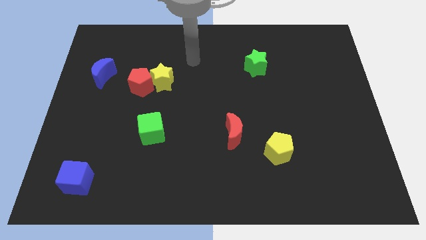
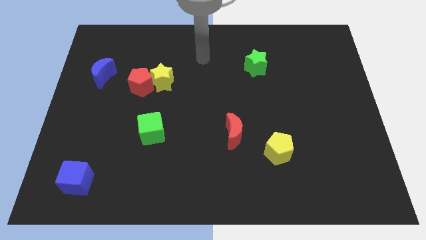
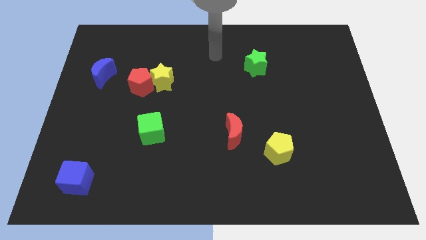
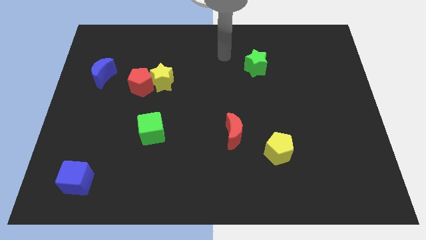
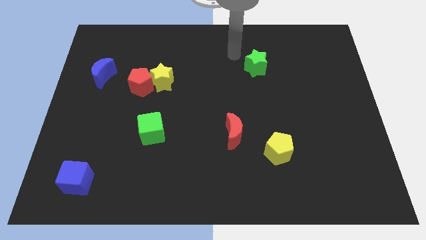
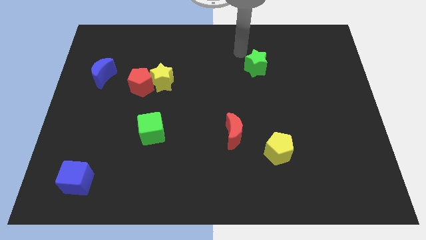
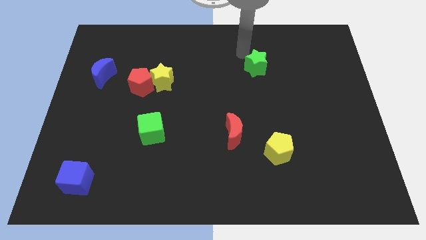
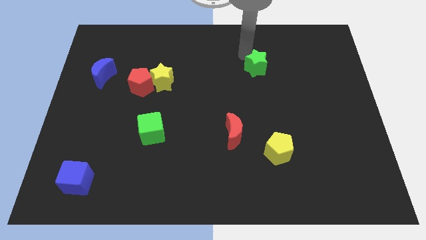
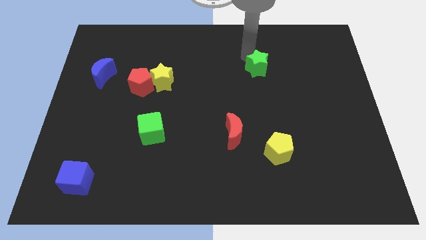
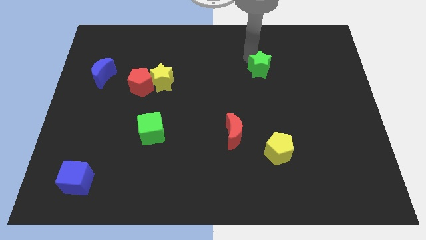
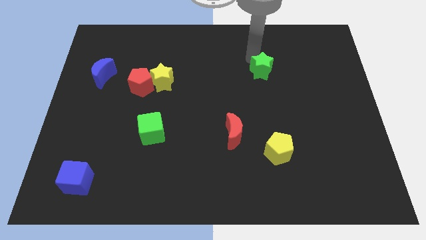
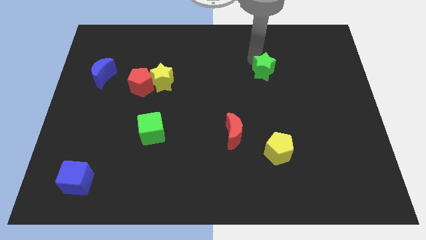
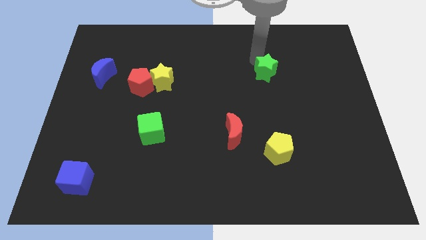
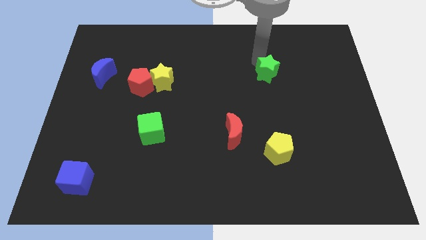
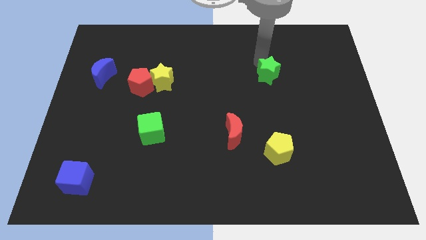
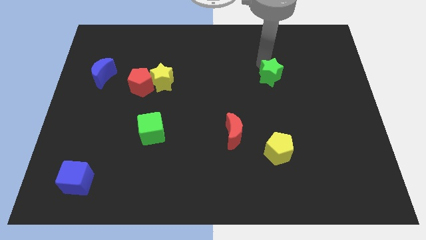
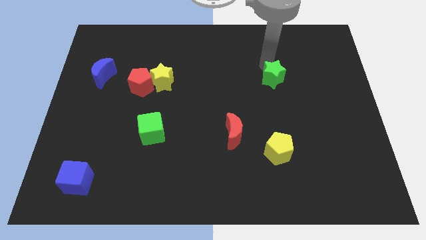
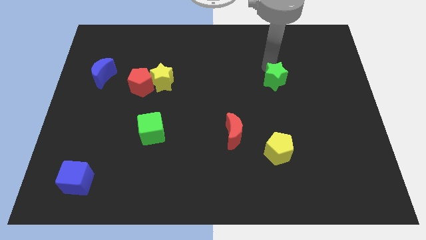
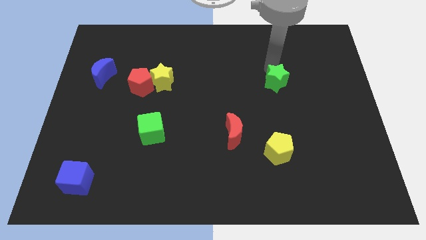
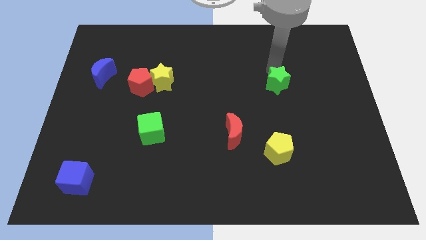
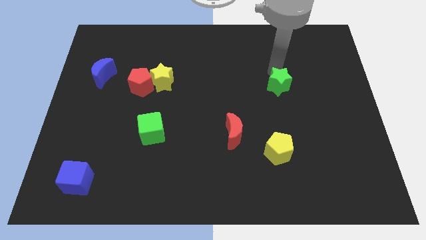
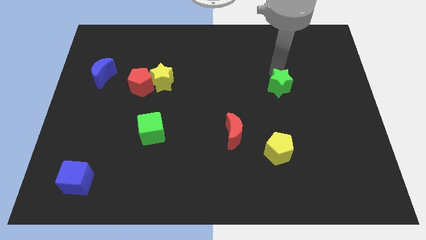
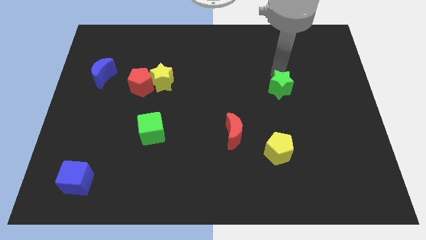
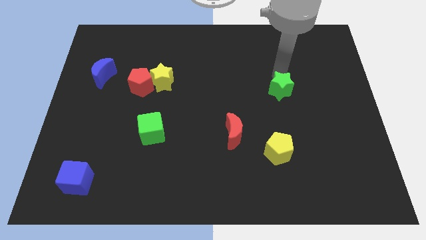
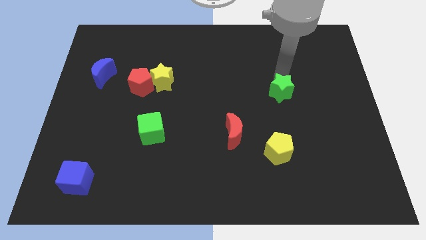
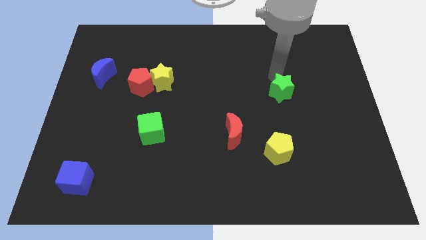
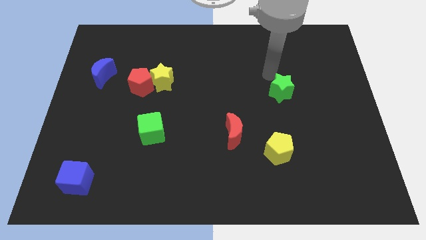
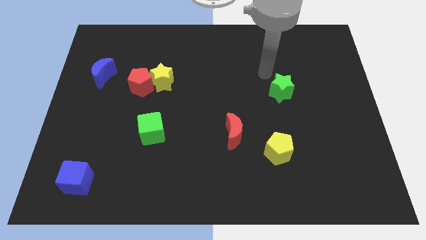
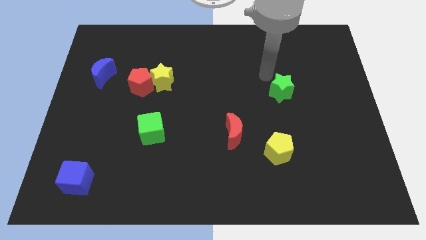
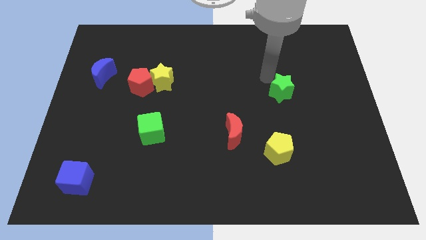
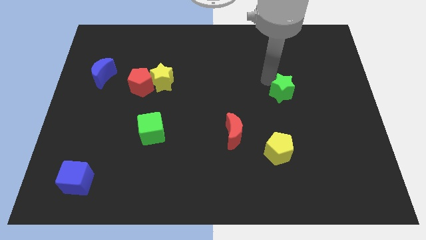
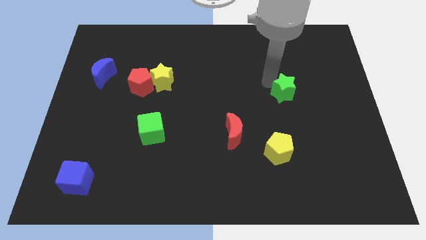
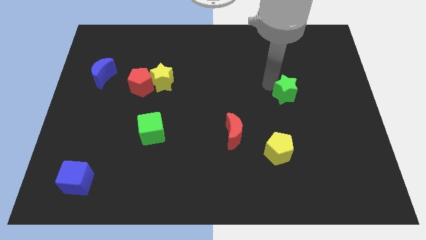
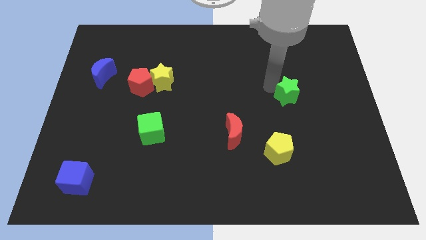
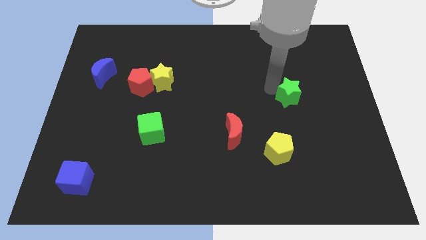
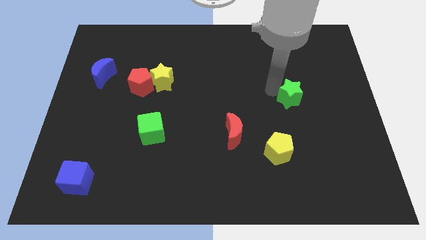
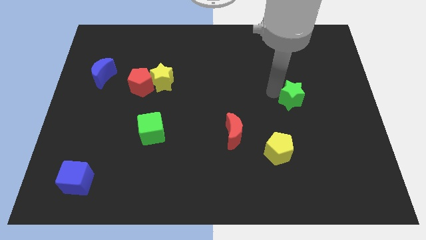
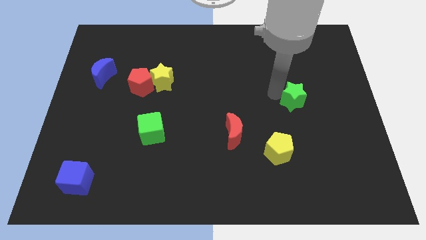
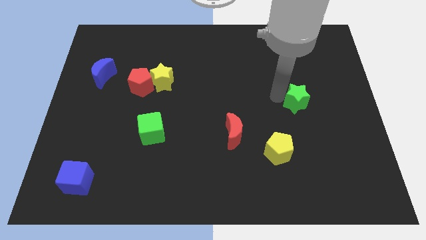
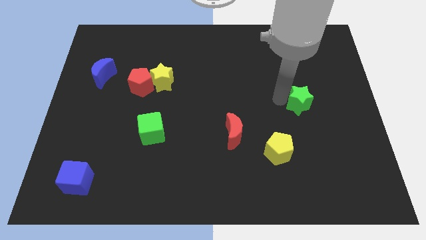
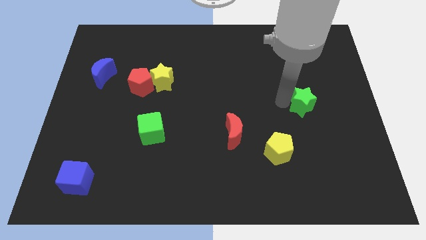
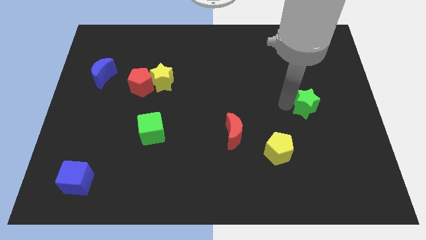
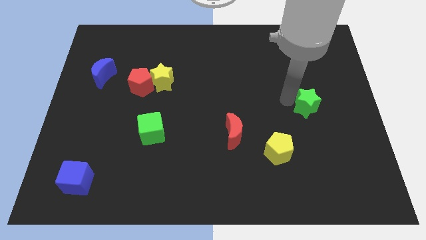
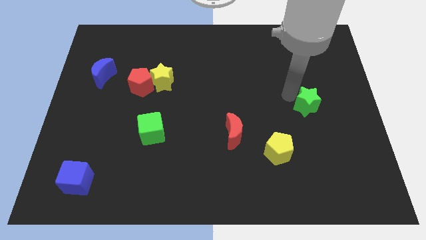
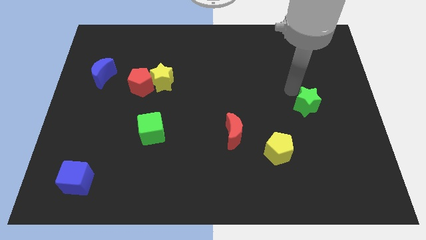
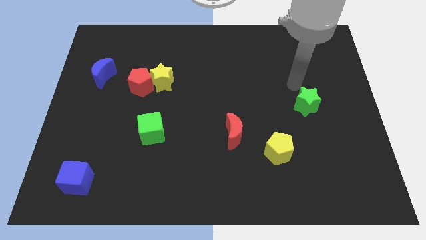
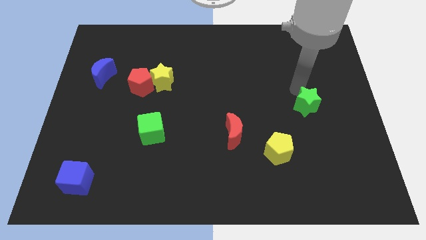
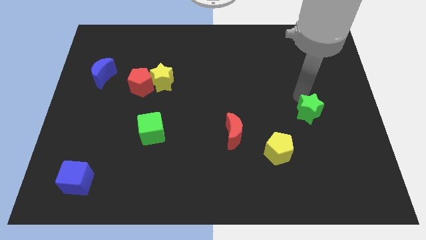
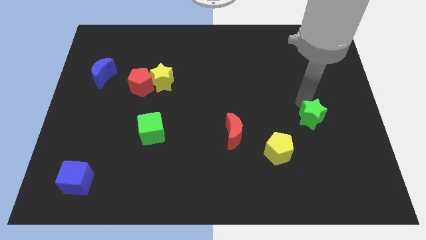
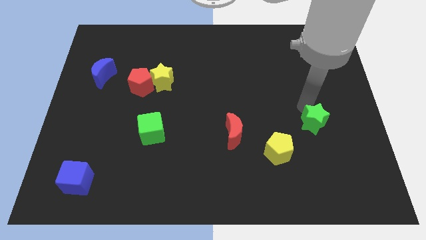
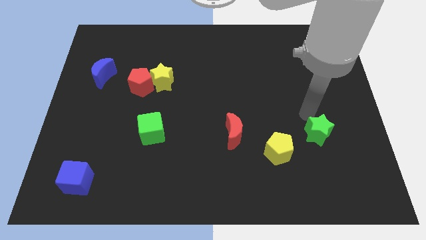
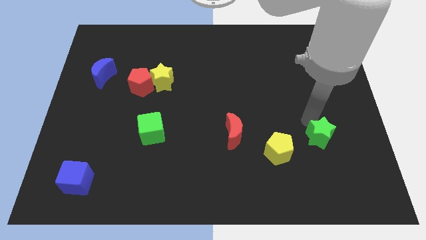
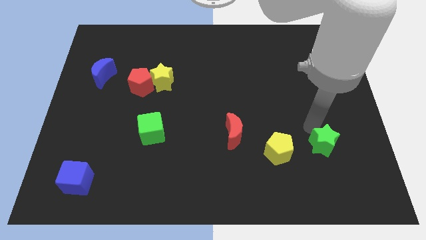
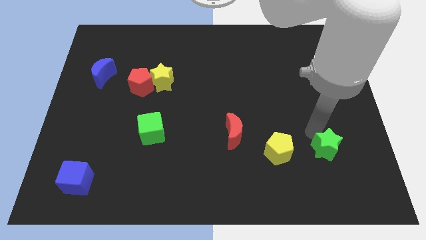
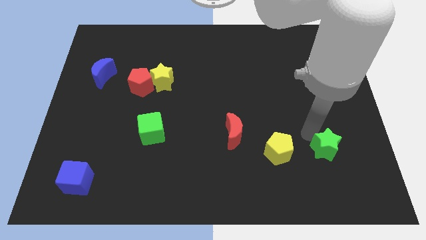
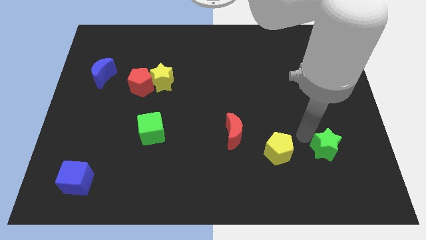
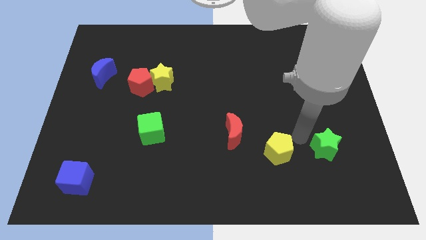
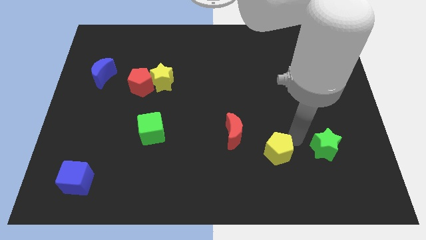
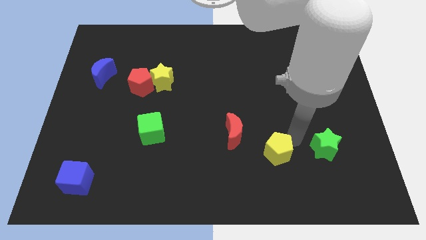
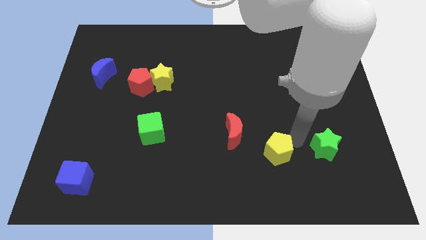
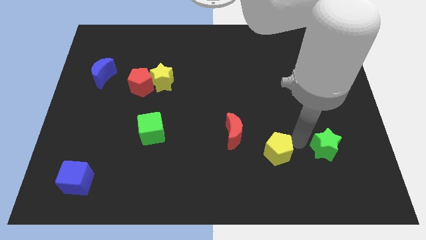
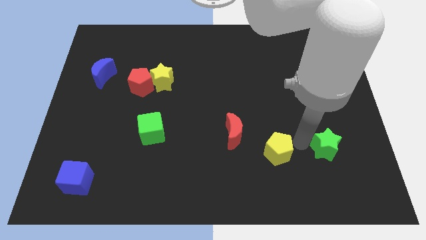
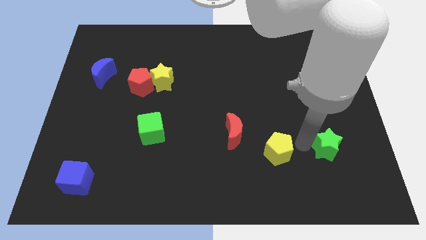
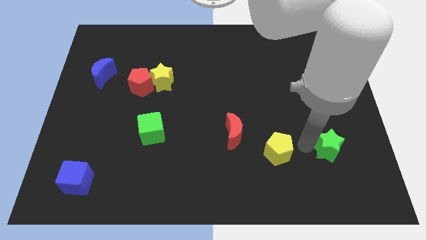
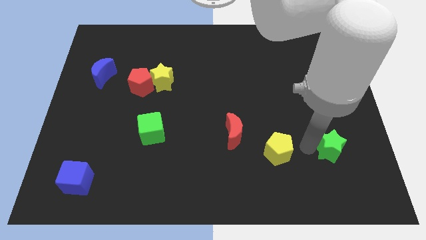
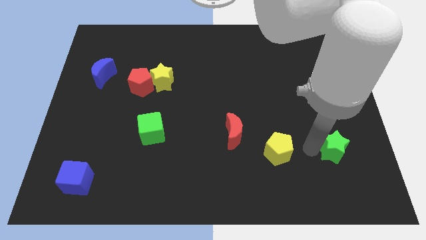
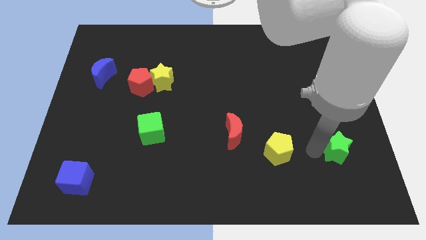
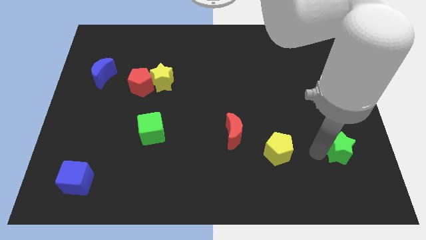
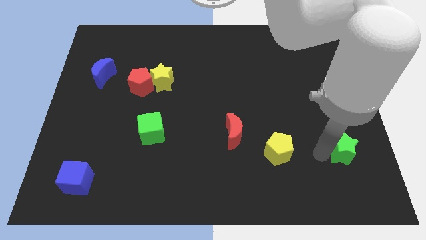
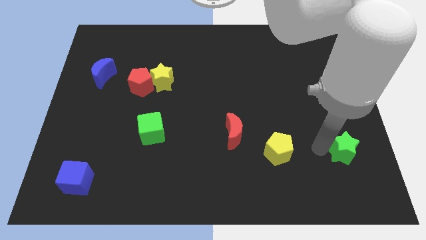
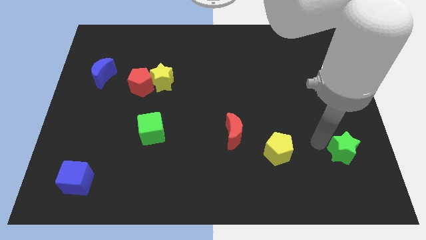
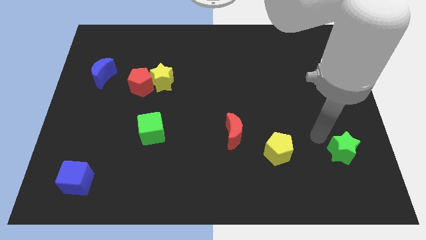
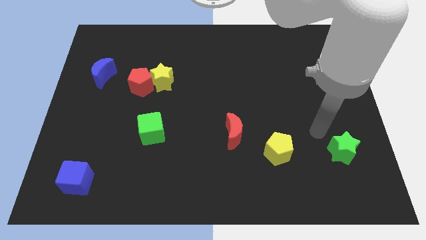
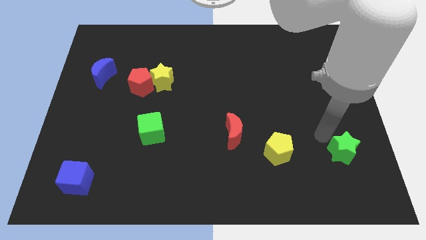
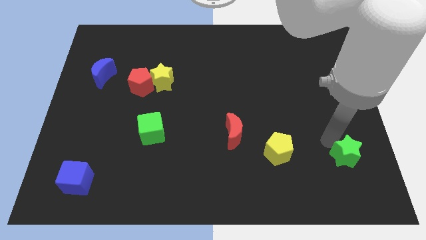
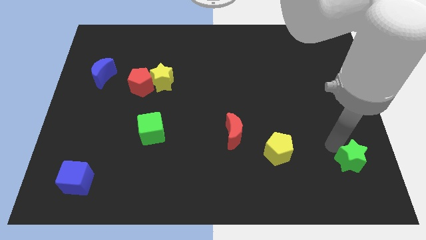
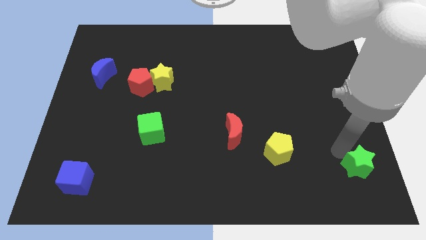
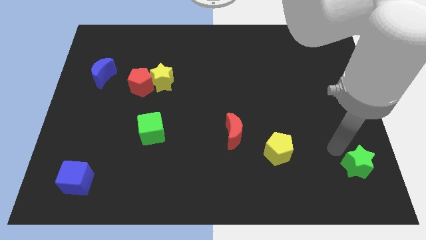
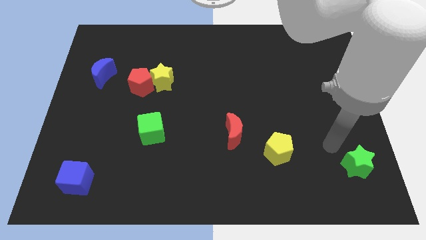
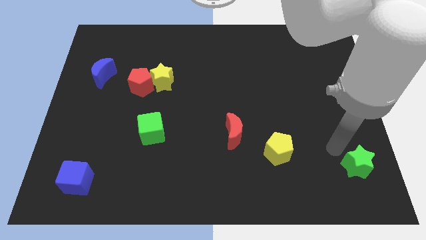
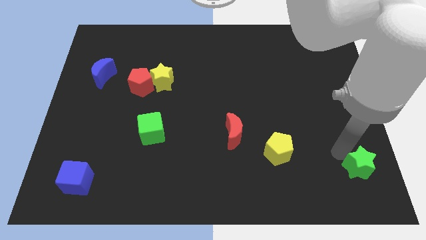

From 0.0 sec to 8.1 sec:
put the green star to the bottom right
